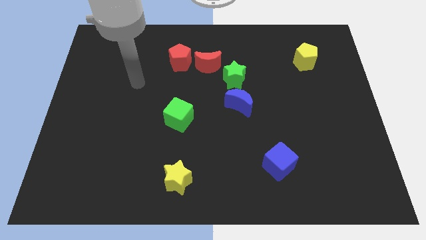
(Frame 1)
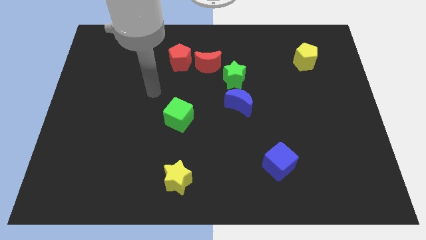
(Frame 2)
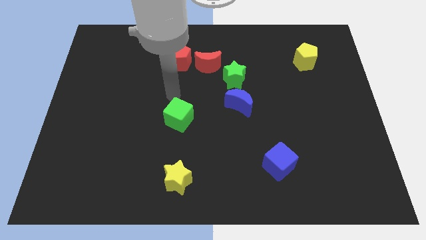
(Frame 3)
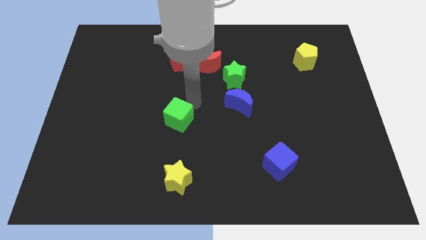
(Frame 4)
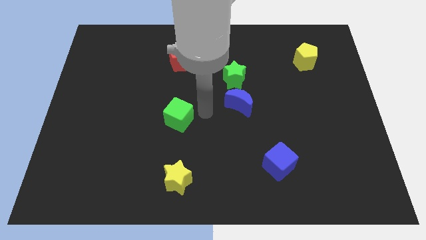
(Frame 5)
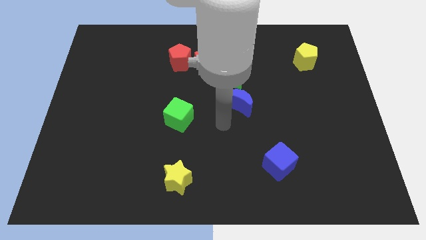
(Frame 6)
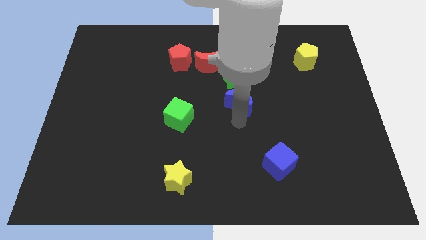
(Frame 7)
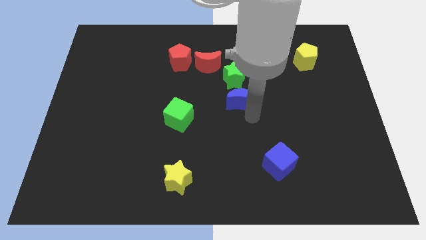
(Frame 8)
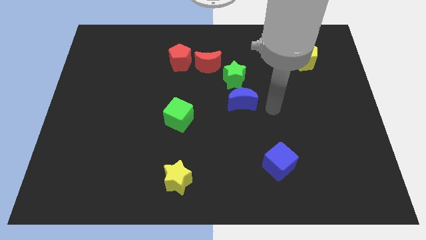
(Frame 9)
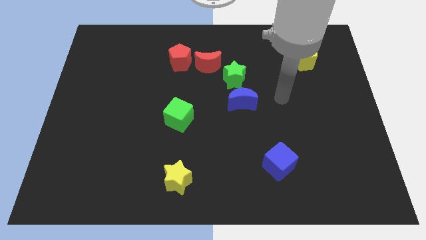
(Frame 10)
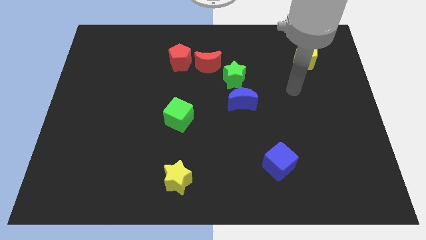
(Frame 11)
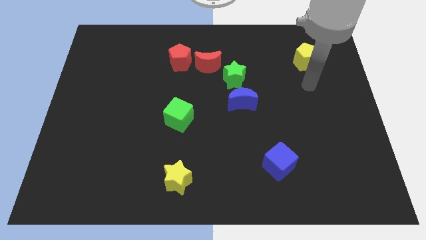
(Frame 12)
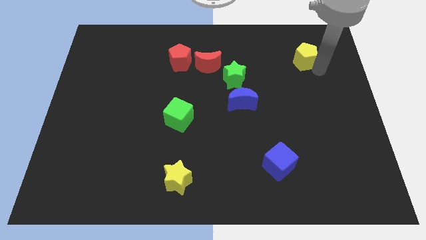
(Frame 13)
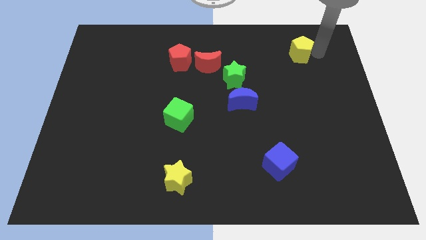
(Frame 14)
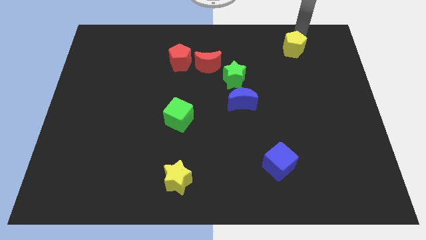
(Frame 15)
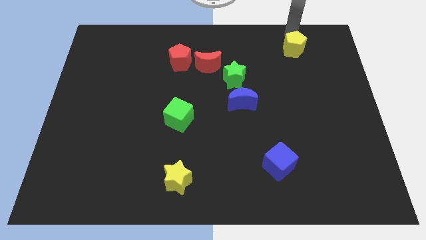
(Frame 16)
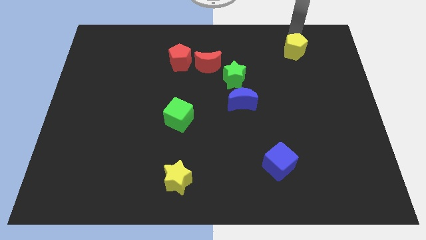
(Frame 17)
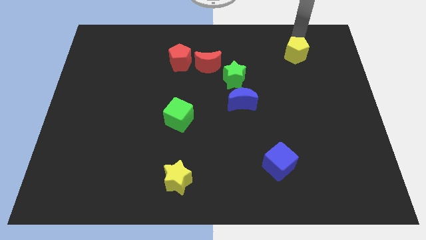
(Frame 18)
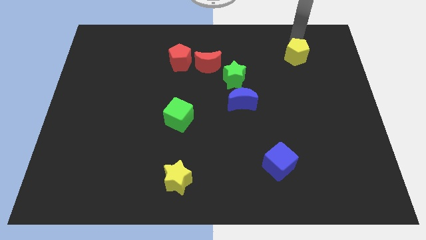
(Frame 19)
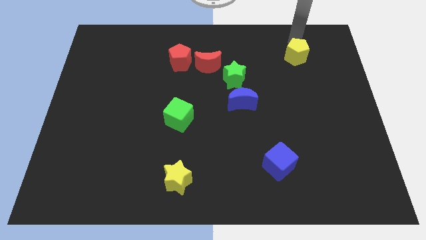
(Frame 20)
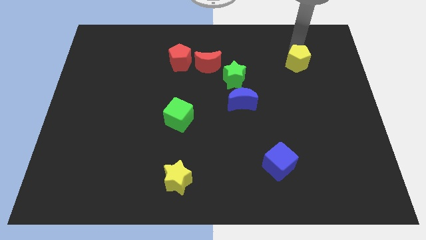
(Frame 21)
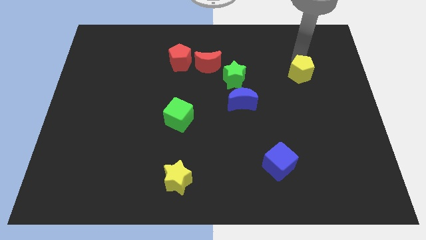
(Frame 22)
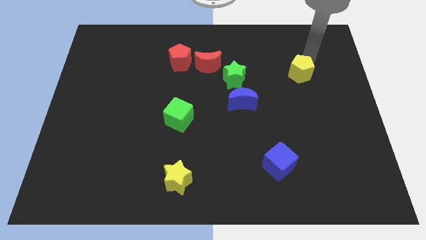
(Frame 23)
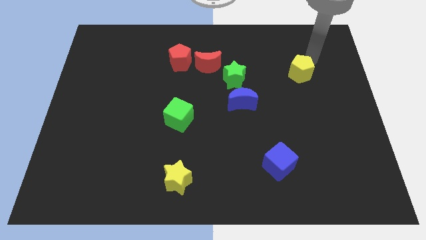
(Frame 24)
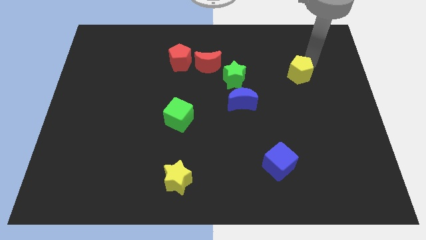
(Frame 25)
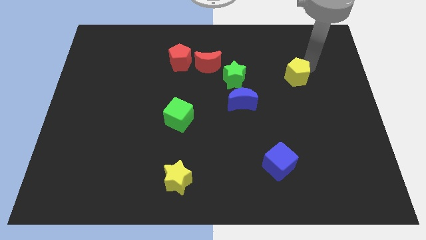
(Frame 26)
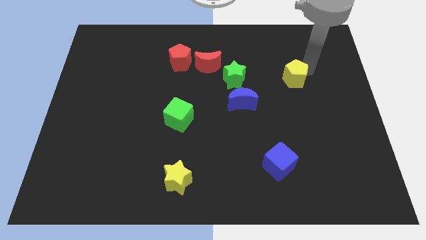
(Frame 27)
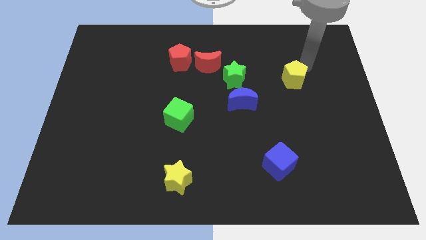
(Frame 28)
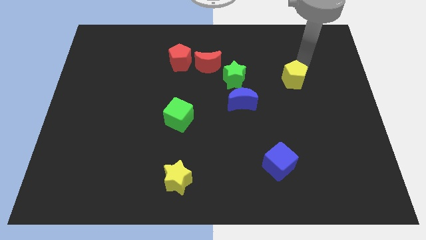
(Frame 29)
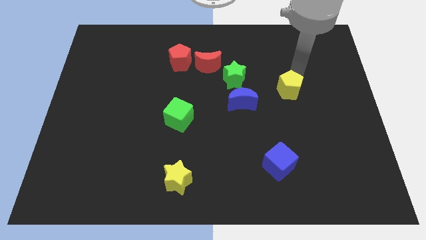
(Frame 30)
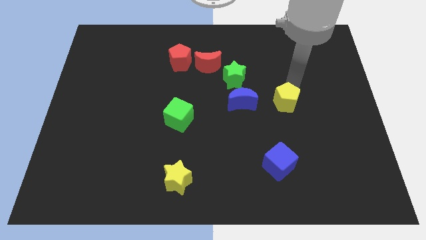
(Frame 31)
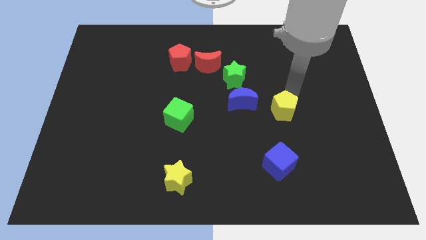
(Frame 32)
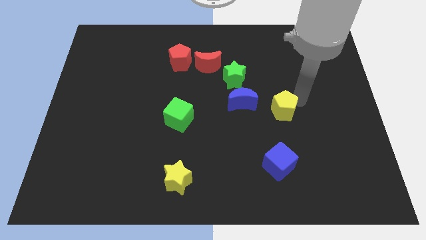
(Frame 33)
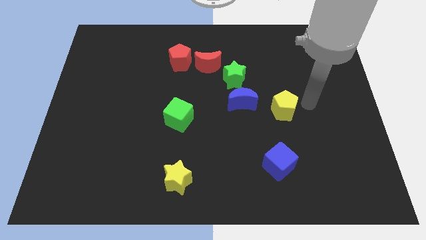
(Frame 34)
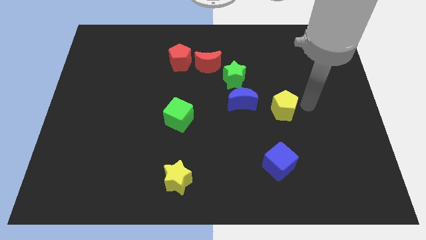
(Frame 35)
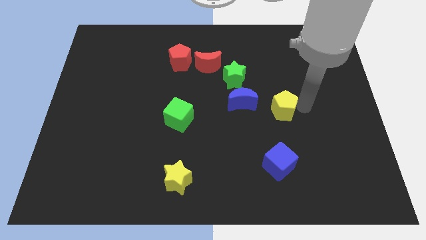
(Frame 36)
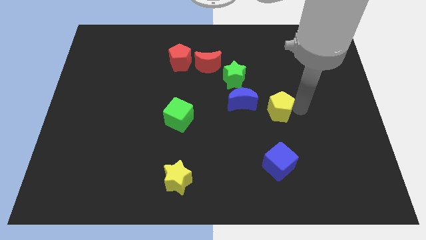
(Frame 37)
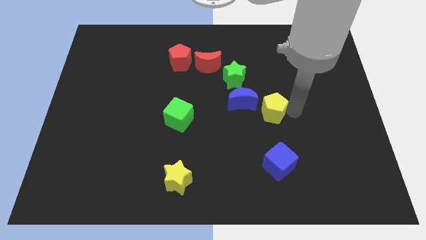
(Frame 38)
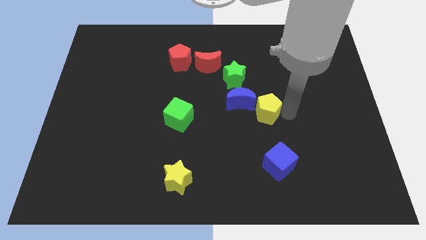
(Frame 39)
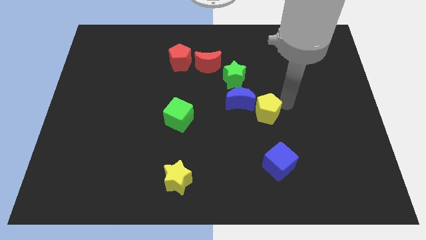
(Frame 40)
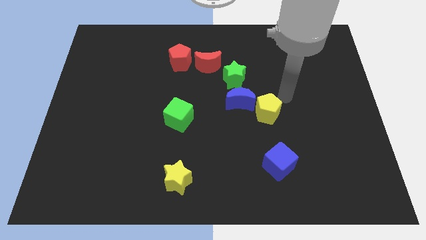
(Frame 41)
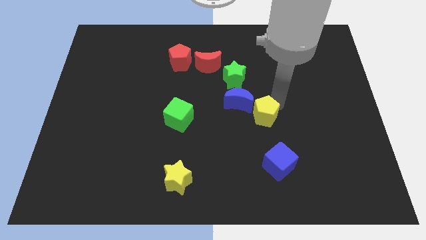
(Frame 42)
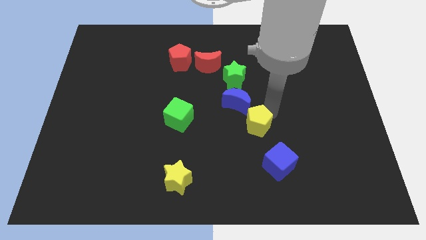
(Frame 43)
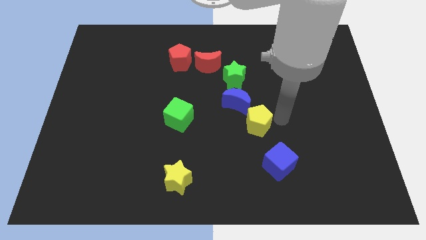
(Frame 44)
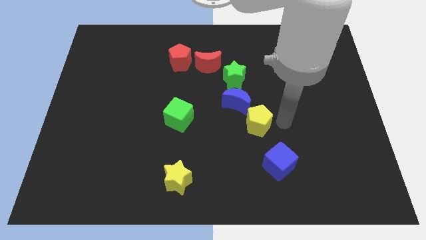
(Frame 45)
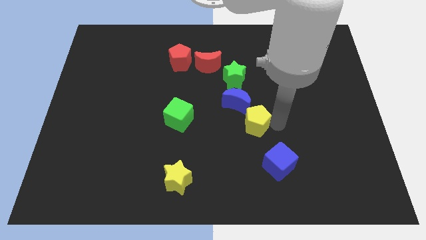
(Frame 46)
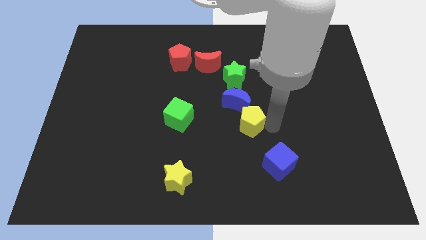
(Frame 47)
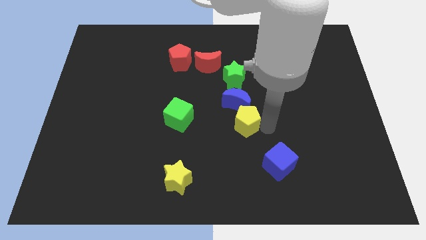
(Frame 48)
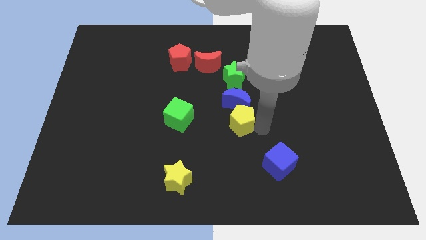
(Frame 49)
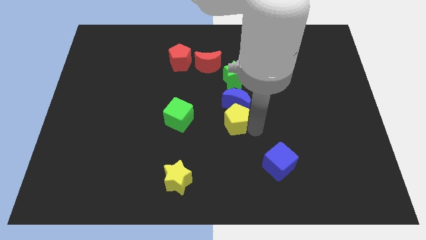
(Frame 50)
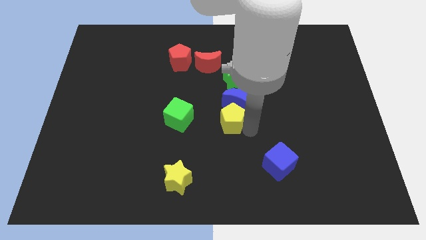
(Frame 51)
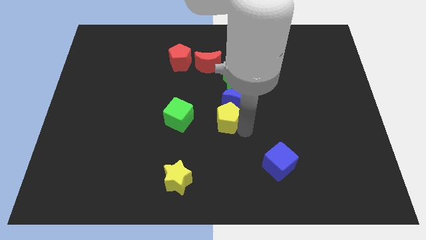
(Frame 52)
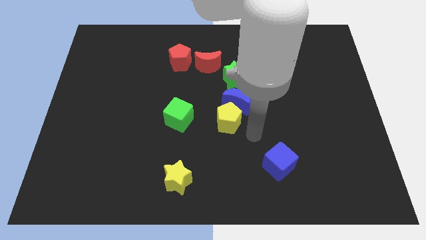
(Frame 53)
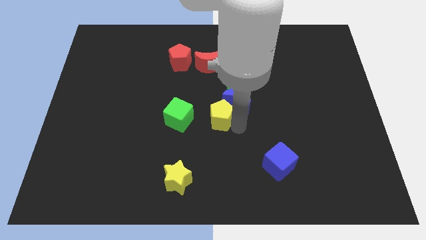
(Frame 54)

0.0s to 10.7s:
push the yellow pentagon just left of the blue moon

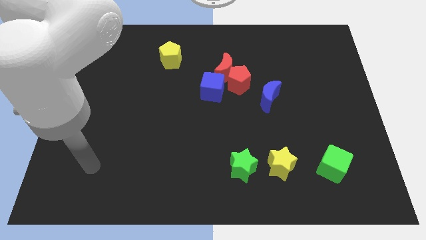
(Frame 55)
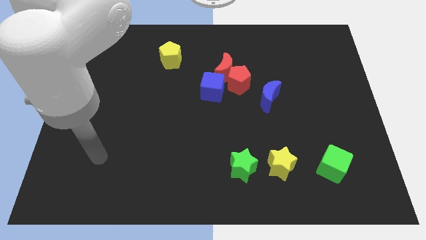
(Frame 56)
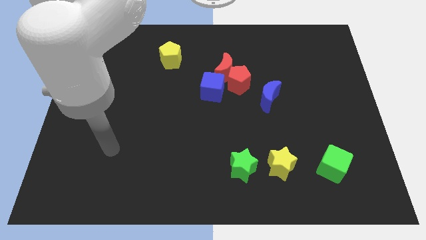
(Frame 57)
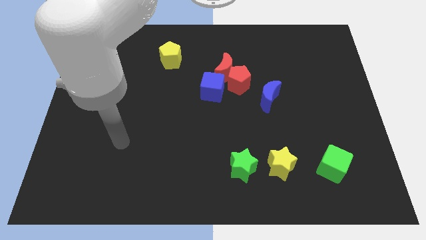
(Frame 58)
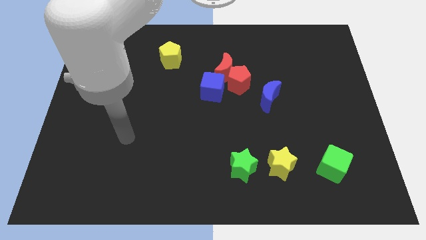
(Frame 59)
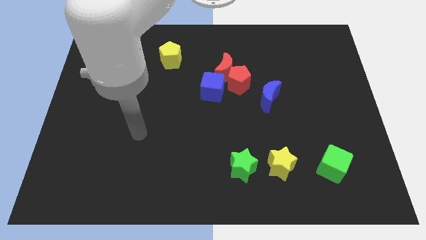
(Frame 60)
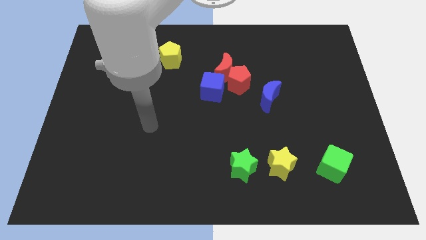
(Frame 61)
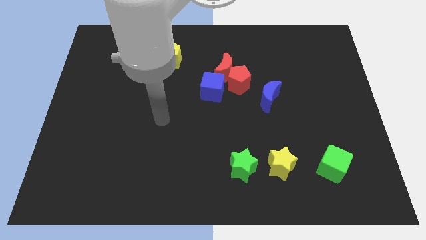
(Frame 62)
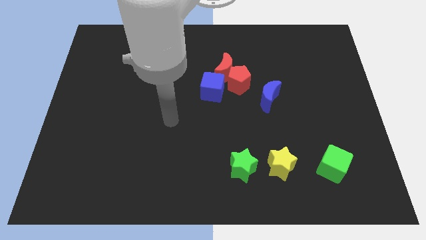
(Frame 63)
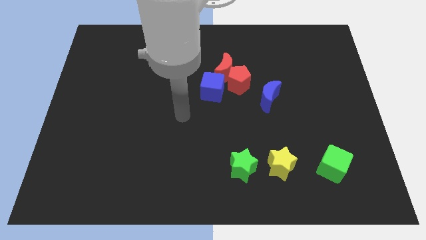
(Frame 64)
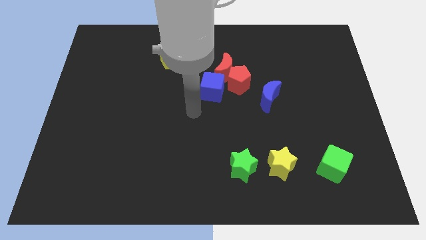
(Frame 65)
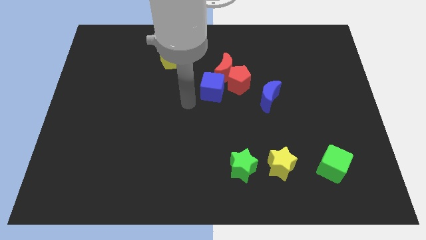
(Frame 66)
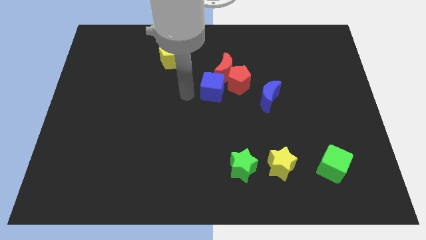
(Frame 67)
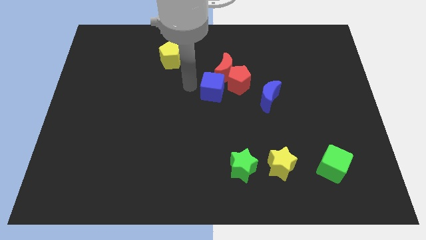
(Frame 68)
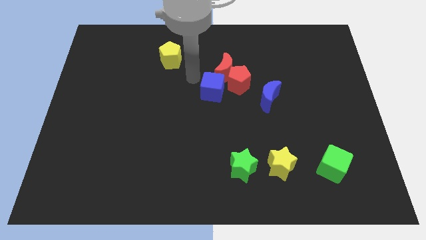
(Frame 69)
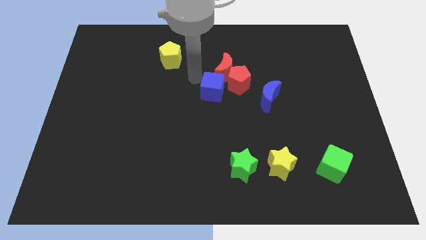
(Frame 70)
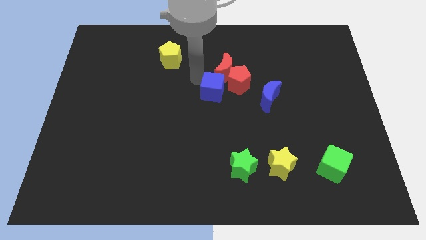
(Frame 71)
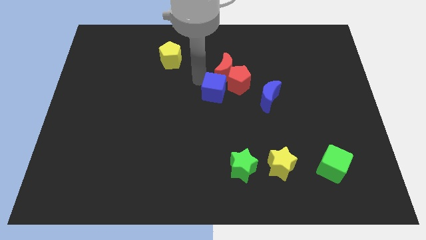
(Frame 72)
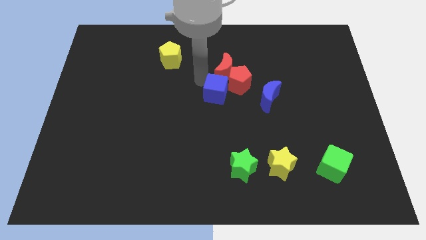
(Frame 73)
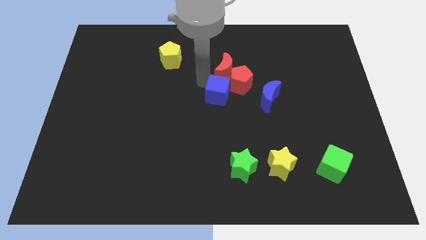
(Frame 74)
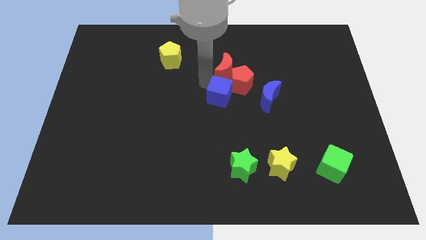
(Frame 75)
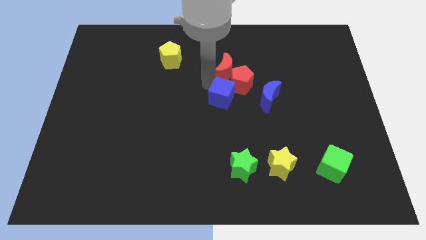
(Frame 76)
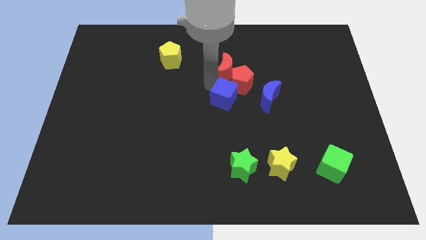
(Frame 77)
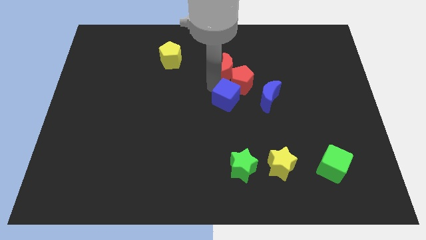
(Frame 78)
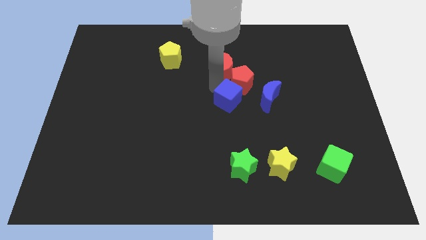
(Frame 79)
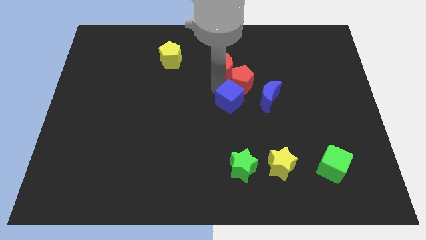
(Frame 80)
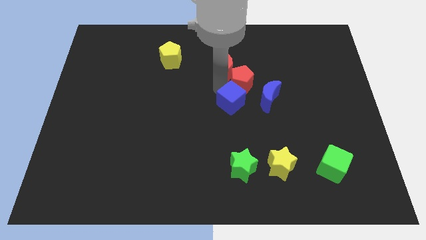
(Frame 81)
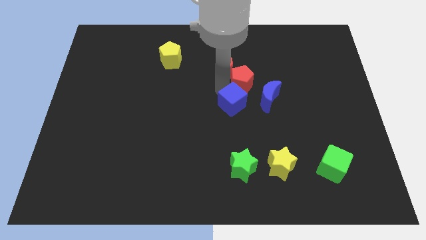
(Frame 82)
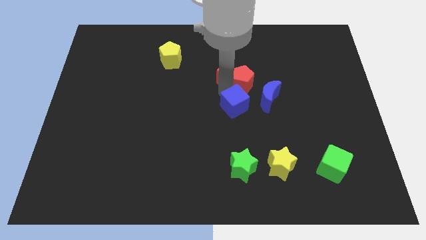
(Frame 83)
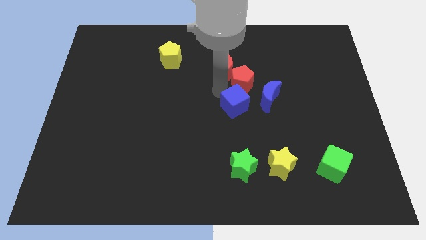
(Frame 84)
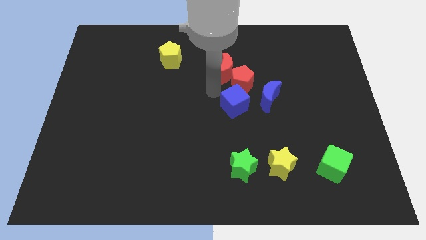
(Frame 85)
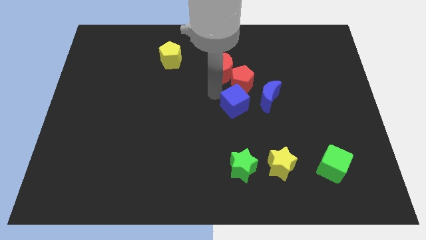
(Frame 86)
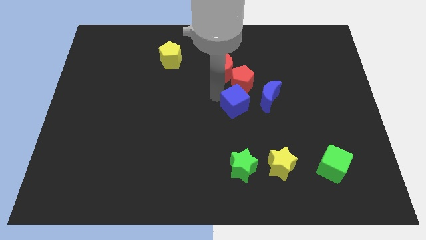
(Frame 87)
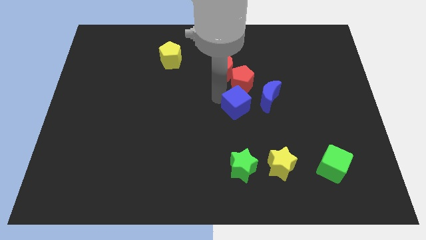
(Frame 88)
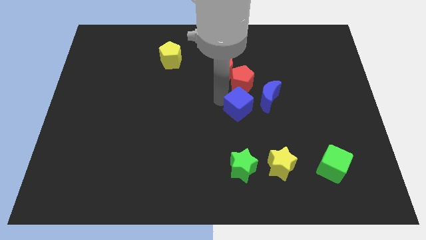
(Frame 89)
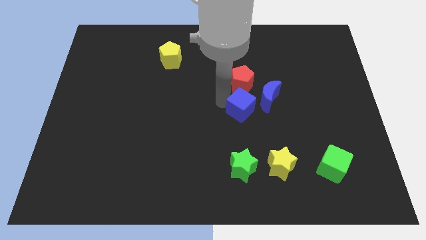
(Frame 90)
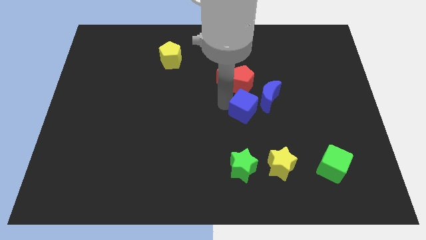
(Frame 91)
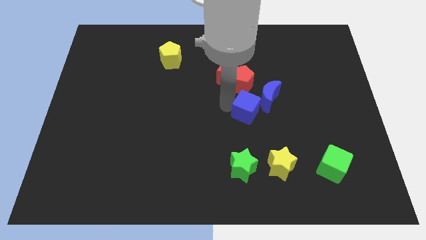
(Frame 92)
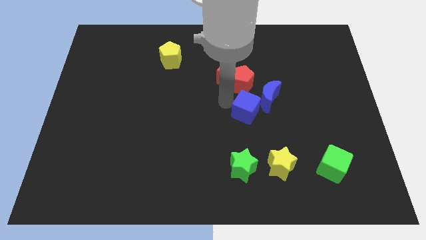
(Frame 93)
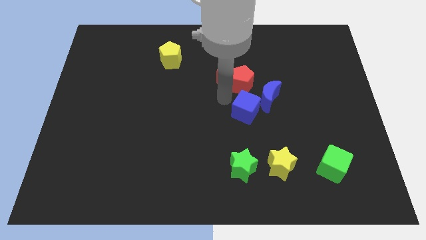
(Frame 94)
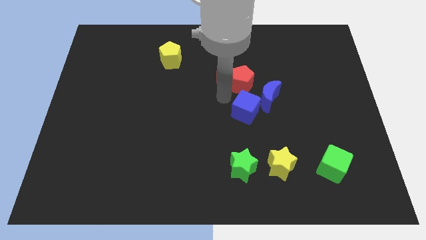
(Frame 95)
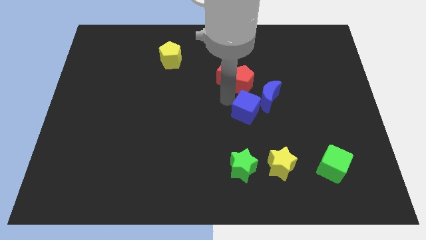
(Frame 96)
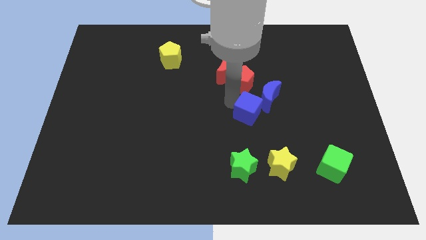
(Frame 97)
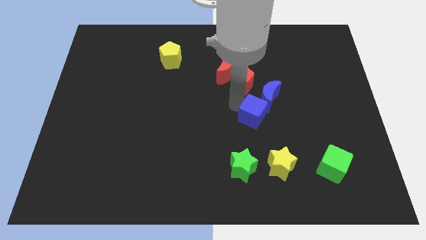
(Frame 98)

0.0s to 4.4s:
slide the blue cube to the bottom side of the blue moon
